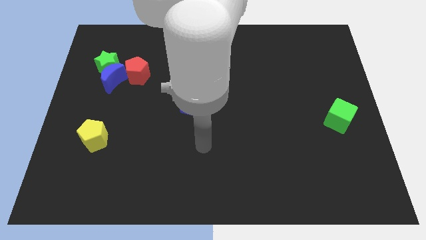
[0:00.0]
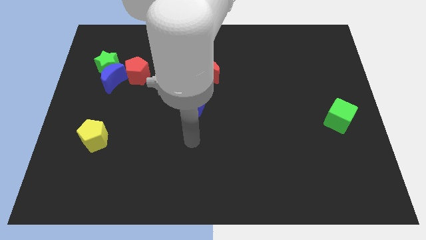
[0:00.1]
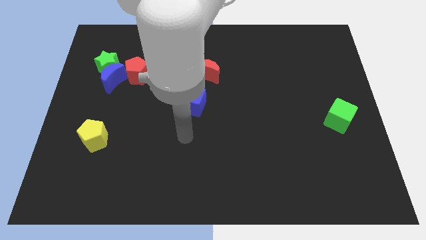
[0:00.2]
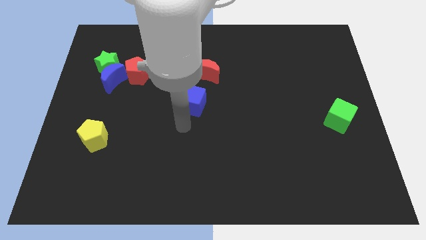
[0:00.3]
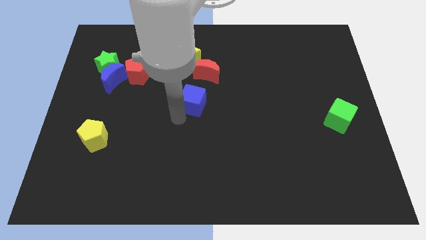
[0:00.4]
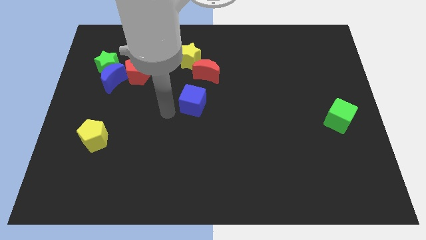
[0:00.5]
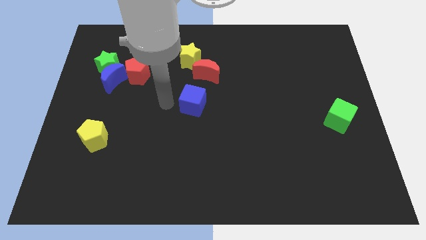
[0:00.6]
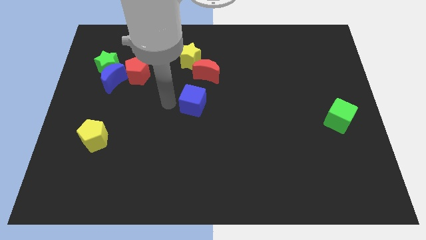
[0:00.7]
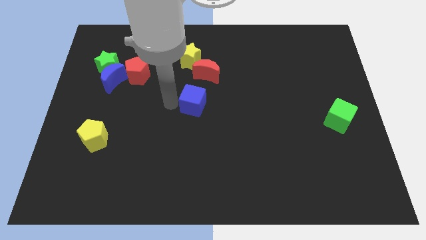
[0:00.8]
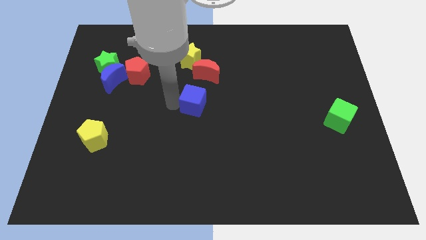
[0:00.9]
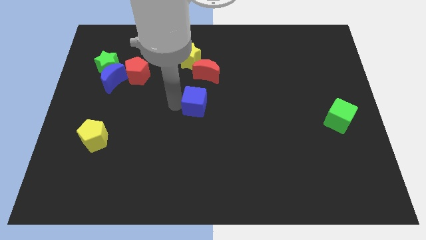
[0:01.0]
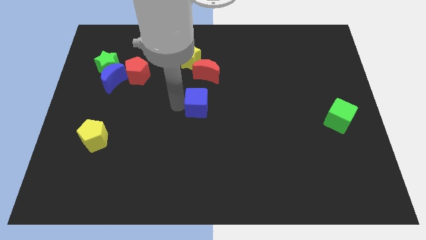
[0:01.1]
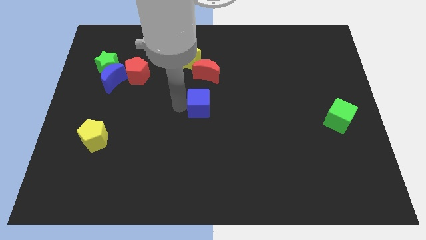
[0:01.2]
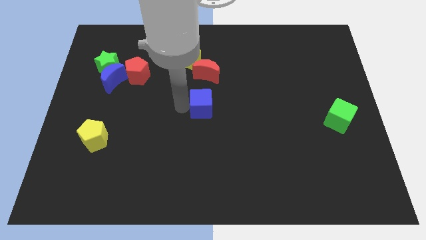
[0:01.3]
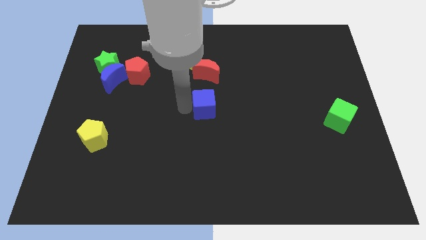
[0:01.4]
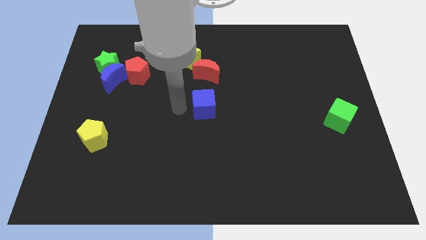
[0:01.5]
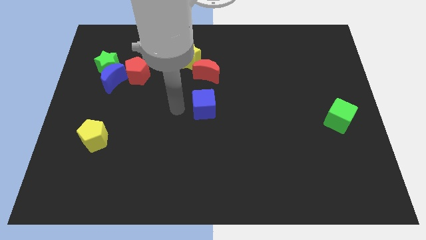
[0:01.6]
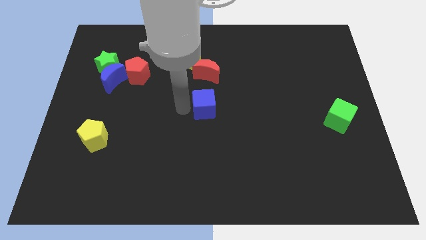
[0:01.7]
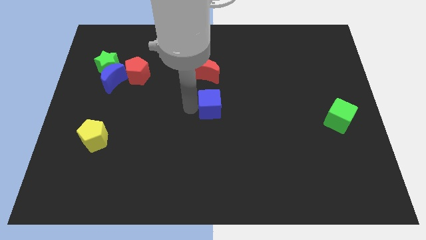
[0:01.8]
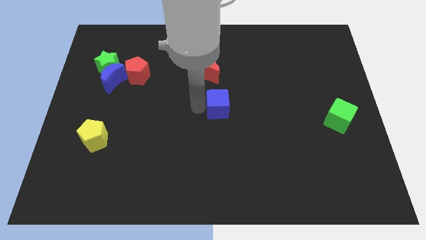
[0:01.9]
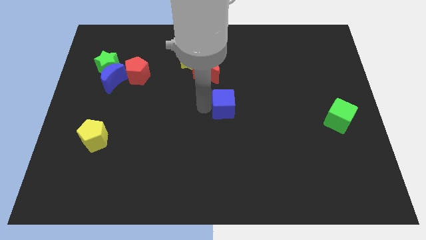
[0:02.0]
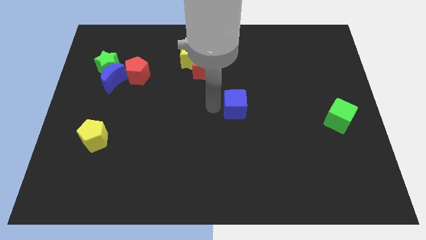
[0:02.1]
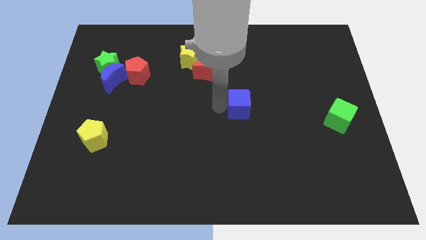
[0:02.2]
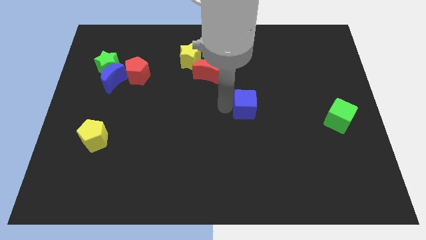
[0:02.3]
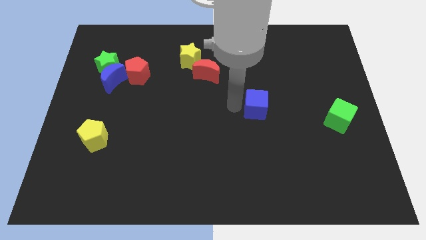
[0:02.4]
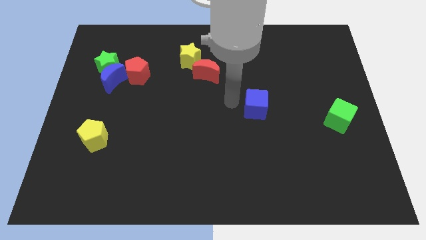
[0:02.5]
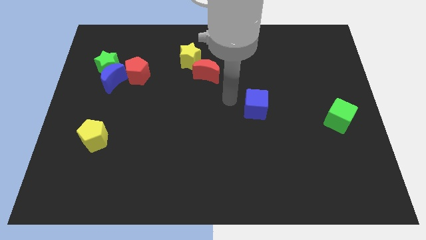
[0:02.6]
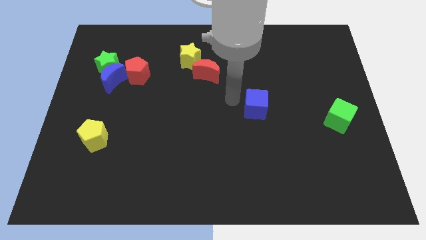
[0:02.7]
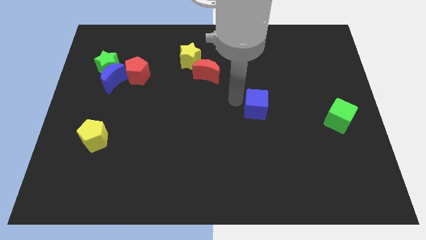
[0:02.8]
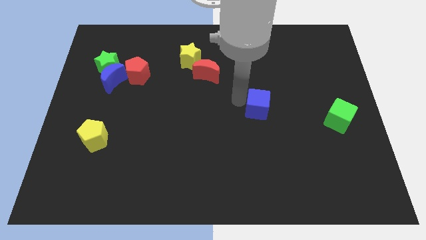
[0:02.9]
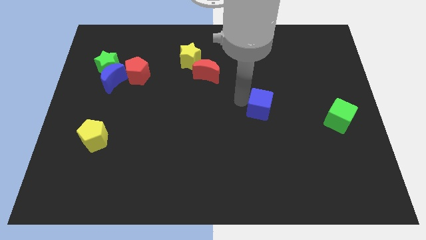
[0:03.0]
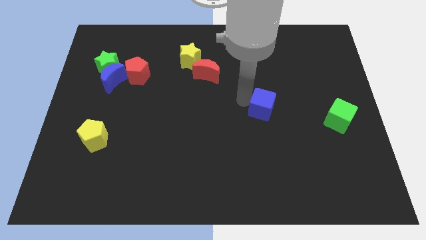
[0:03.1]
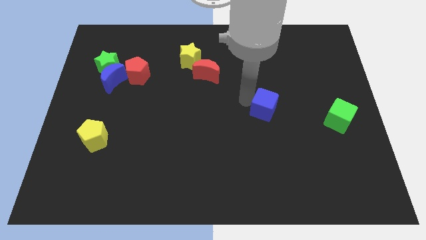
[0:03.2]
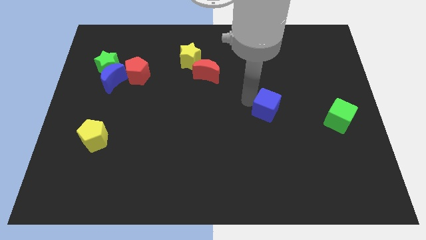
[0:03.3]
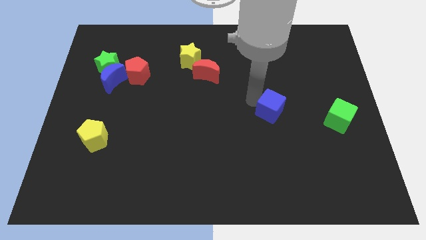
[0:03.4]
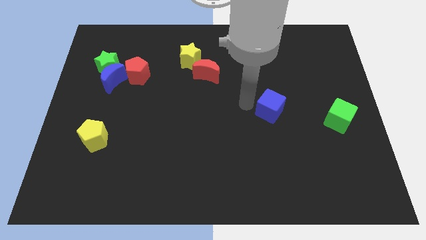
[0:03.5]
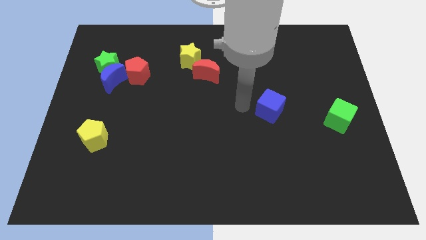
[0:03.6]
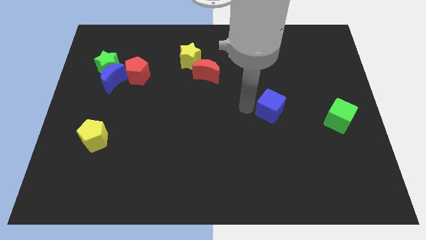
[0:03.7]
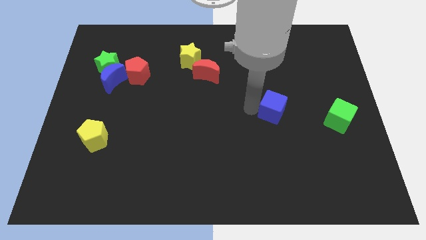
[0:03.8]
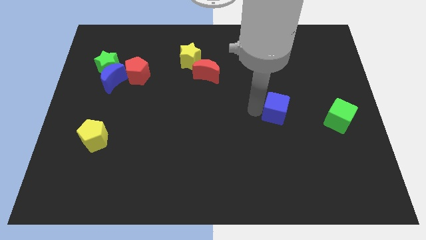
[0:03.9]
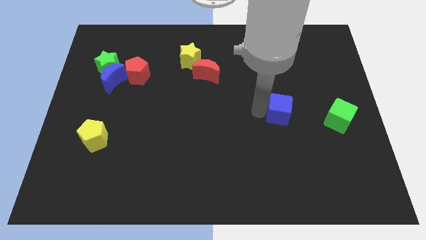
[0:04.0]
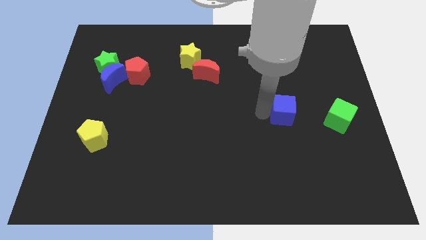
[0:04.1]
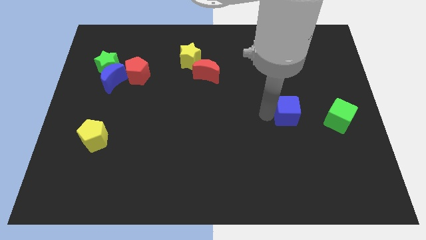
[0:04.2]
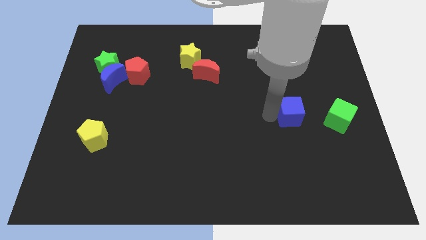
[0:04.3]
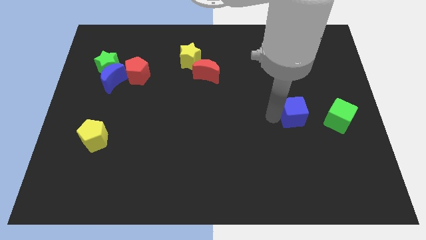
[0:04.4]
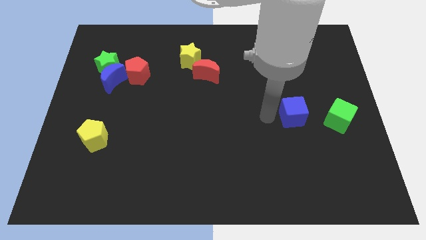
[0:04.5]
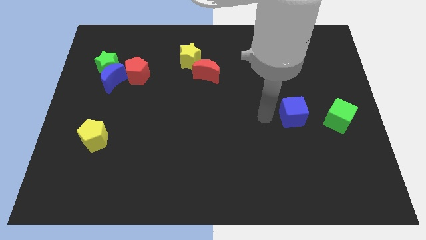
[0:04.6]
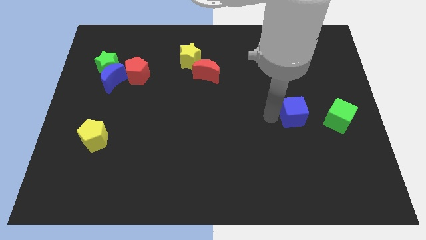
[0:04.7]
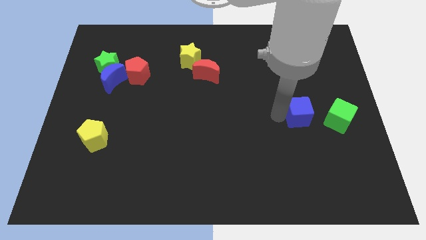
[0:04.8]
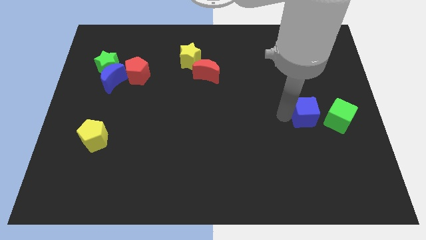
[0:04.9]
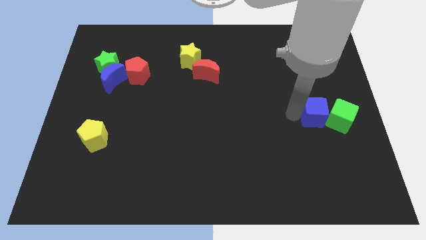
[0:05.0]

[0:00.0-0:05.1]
put the blue cube to the green cube
